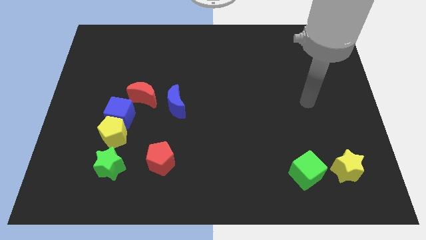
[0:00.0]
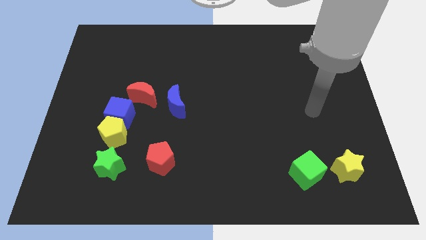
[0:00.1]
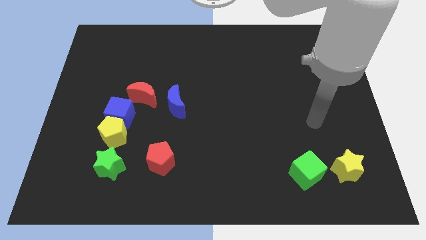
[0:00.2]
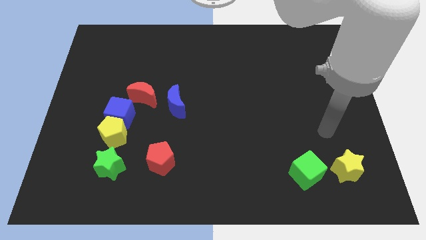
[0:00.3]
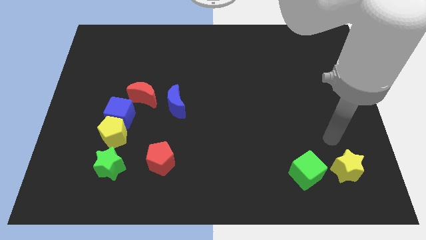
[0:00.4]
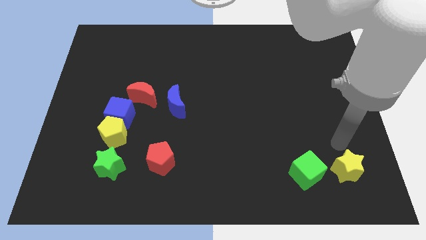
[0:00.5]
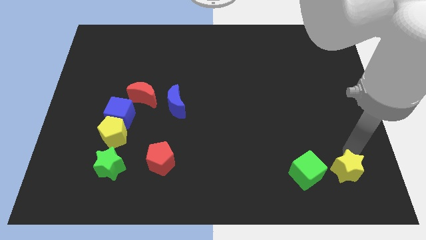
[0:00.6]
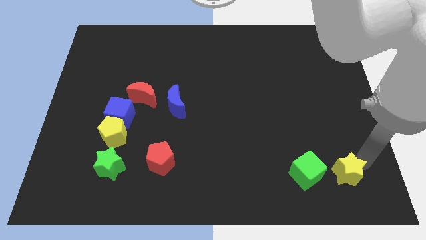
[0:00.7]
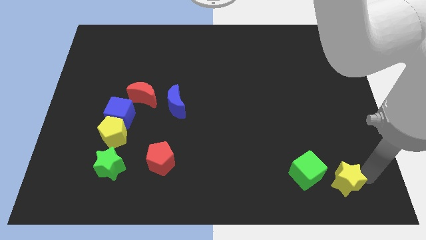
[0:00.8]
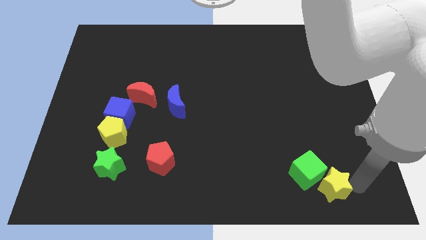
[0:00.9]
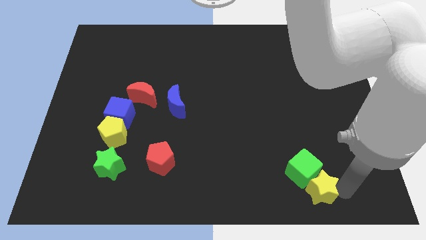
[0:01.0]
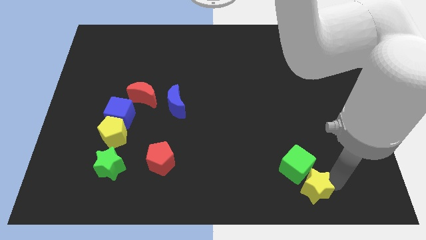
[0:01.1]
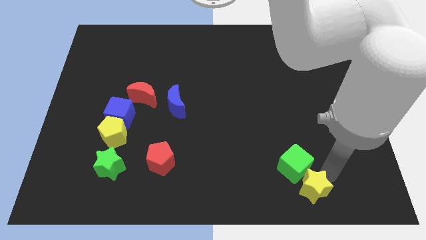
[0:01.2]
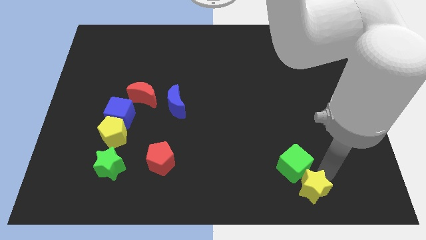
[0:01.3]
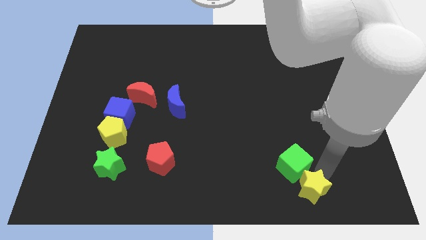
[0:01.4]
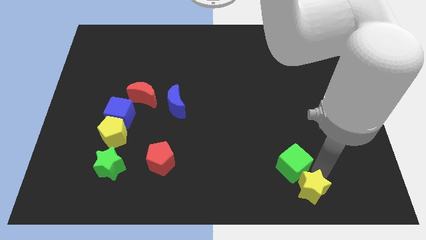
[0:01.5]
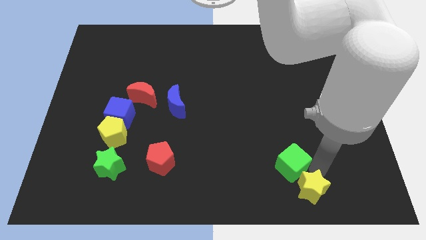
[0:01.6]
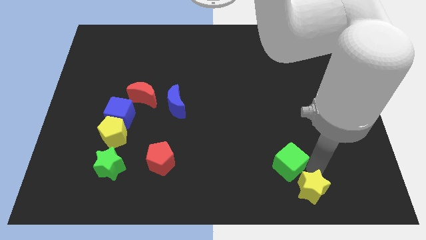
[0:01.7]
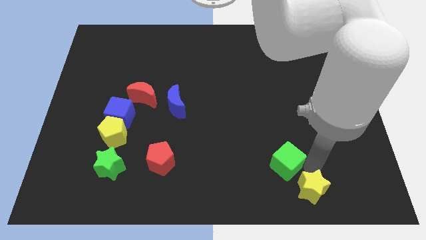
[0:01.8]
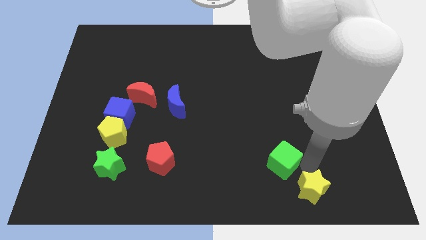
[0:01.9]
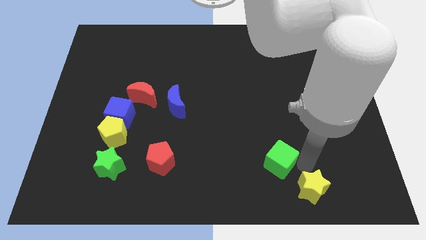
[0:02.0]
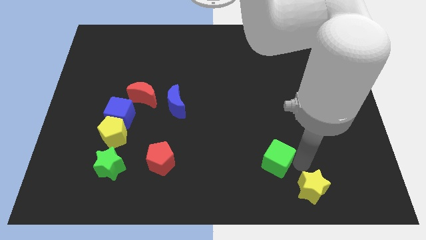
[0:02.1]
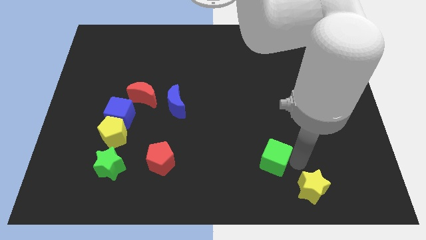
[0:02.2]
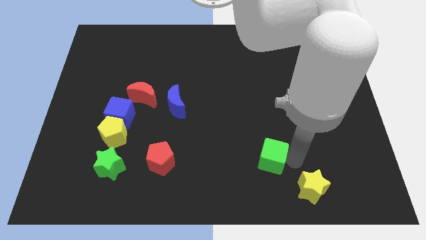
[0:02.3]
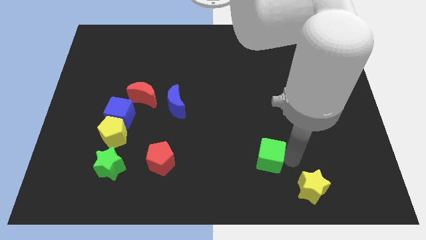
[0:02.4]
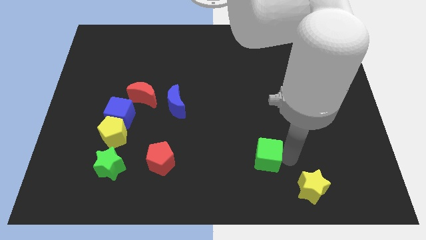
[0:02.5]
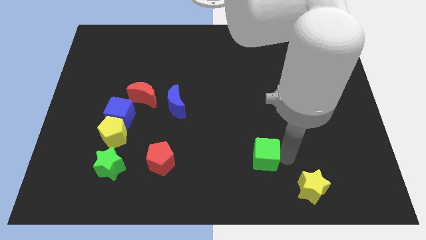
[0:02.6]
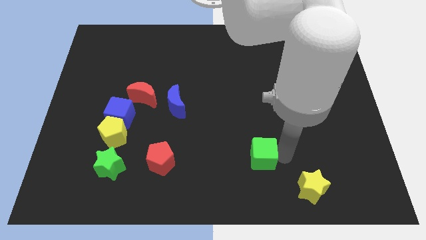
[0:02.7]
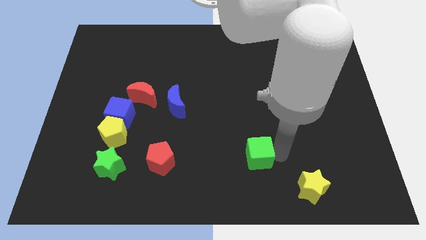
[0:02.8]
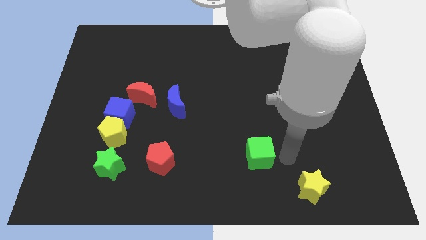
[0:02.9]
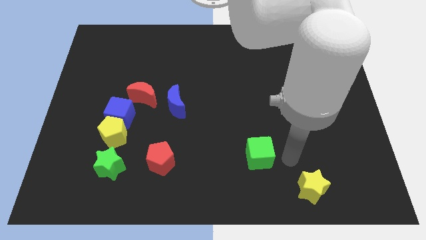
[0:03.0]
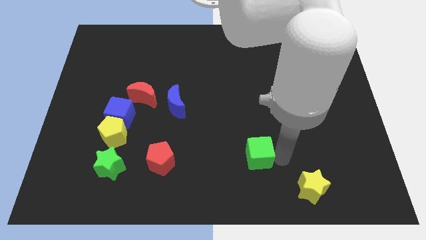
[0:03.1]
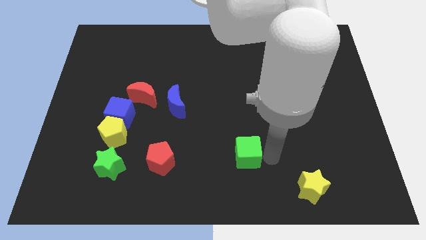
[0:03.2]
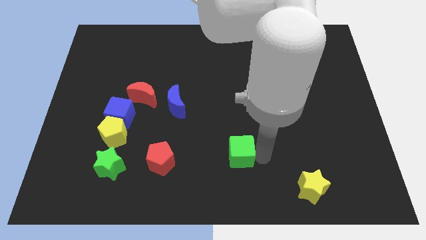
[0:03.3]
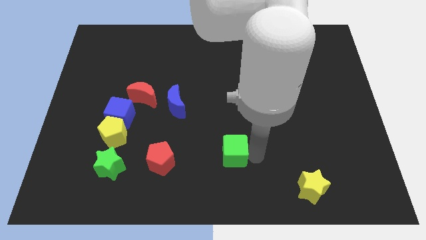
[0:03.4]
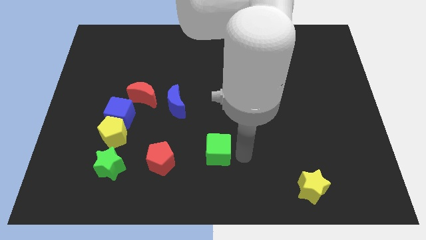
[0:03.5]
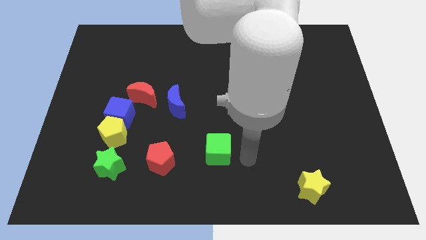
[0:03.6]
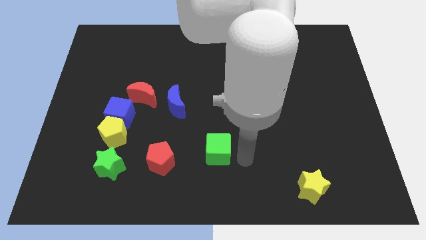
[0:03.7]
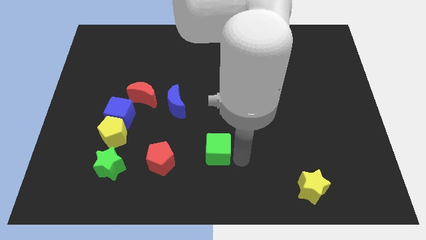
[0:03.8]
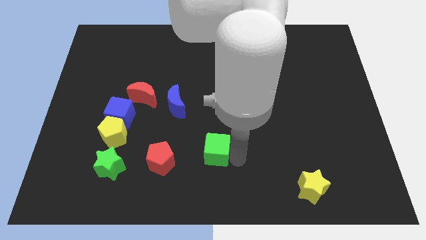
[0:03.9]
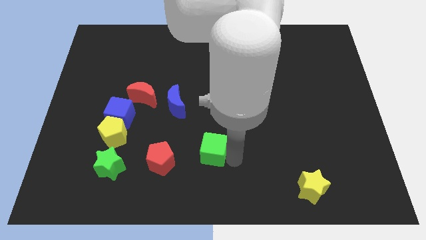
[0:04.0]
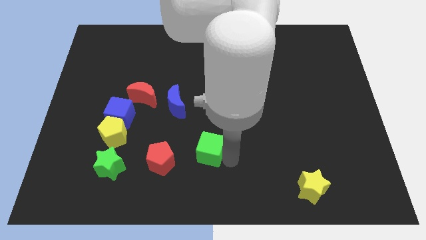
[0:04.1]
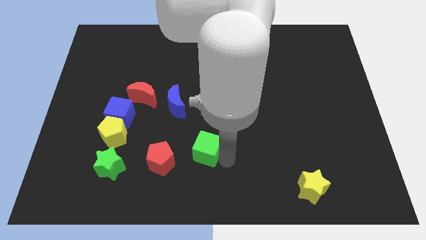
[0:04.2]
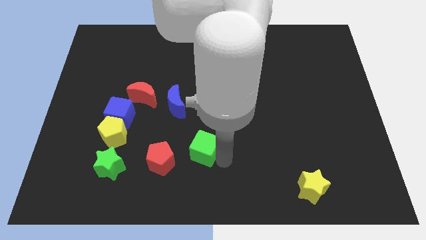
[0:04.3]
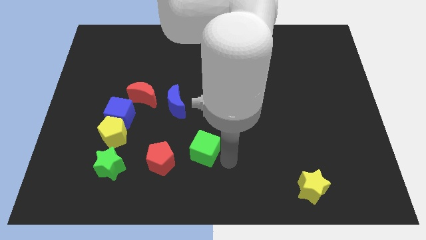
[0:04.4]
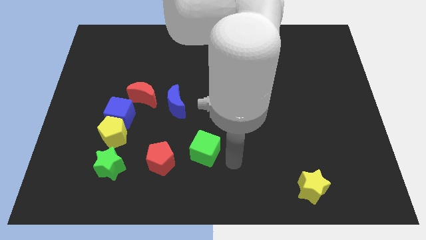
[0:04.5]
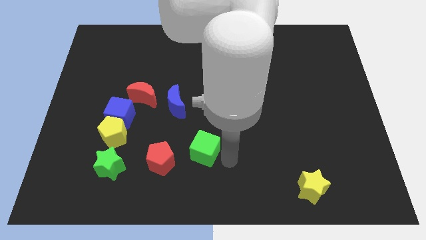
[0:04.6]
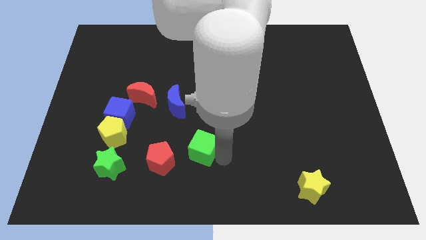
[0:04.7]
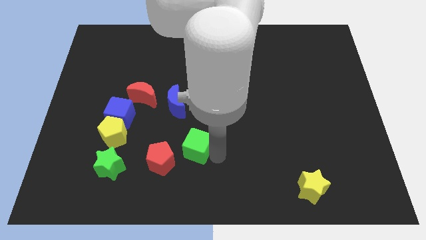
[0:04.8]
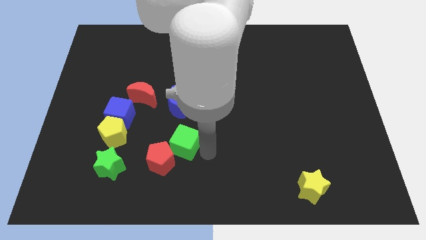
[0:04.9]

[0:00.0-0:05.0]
push the green cube just right of the yellow pentagon

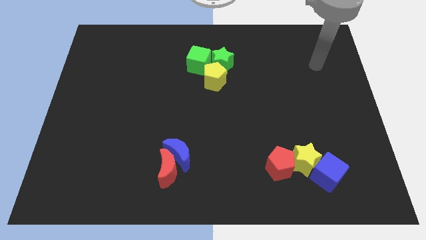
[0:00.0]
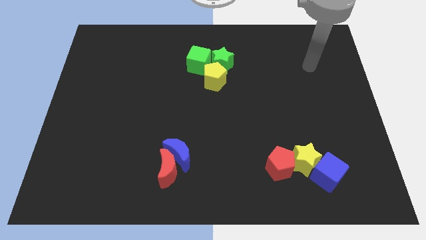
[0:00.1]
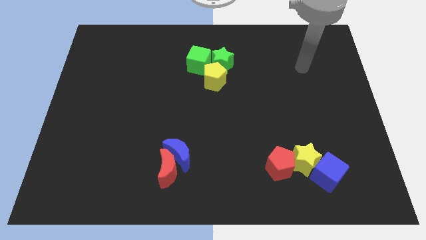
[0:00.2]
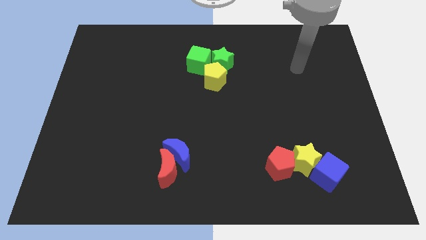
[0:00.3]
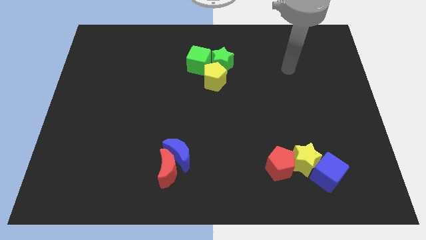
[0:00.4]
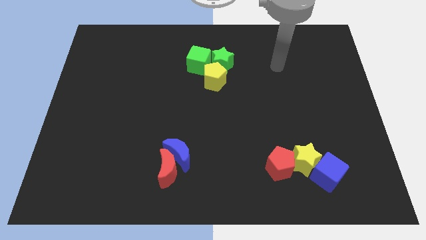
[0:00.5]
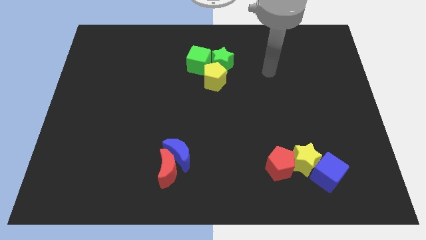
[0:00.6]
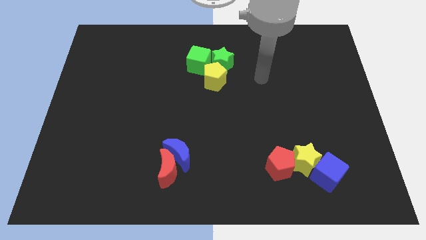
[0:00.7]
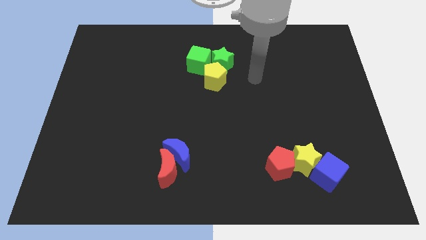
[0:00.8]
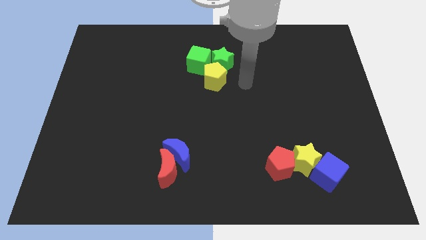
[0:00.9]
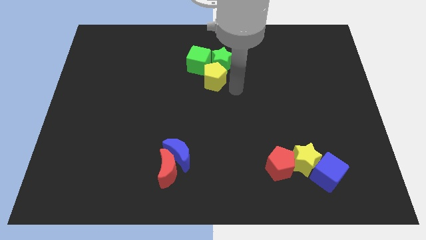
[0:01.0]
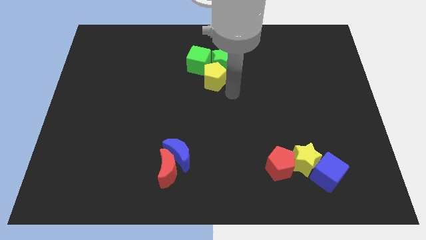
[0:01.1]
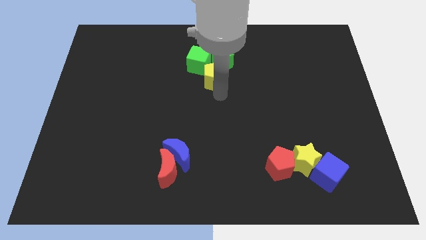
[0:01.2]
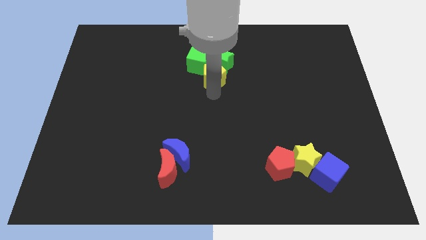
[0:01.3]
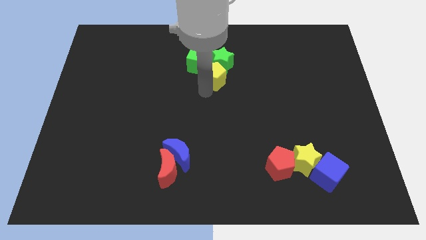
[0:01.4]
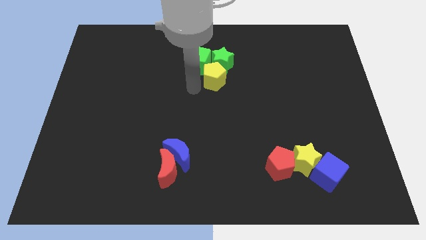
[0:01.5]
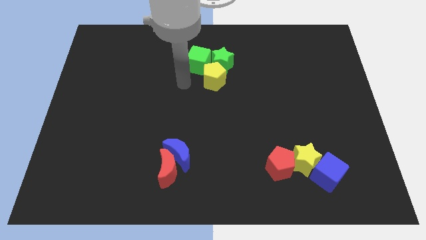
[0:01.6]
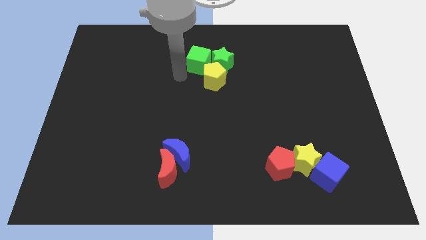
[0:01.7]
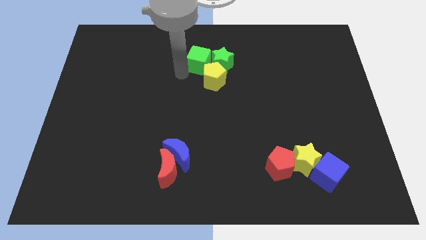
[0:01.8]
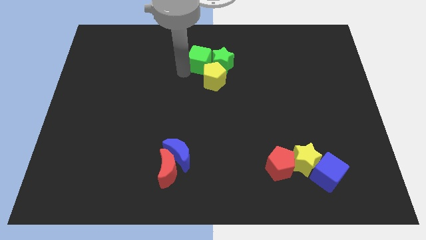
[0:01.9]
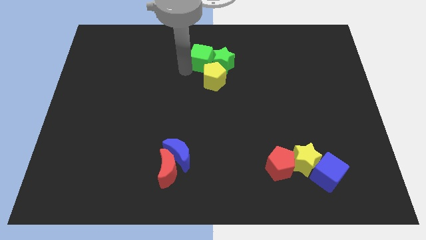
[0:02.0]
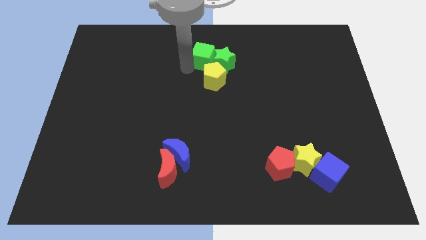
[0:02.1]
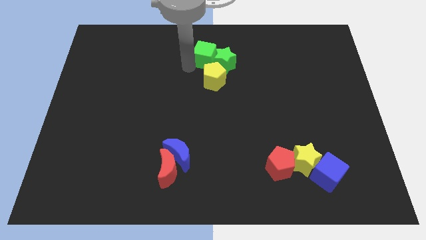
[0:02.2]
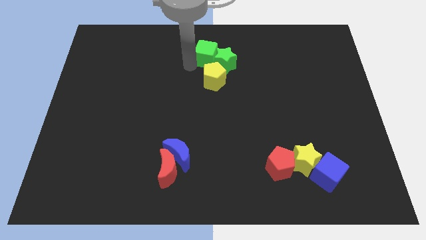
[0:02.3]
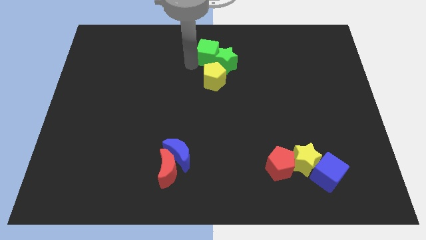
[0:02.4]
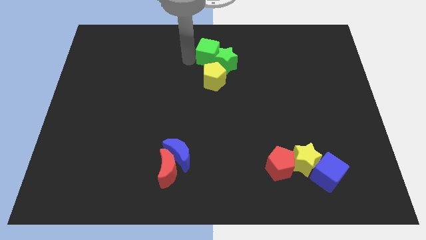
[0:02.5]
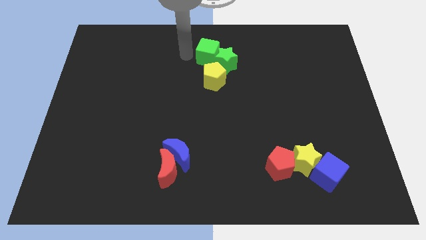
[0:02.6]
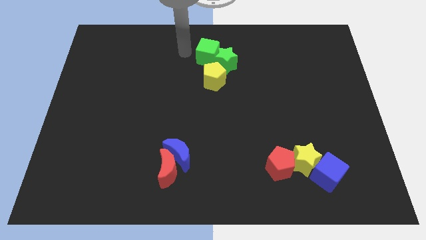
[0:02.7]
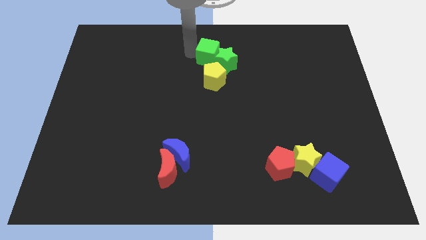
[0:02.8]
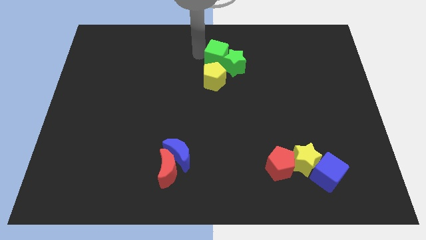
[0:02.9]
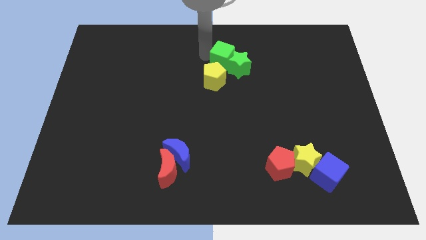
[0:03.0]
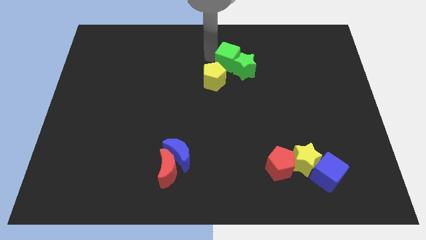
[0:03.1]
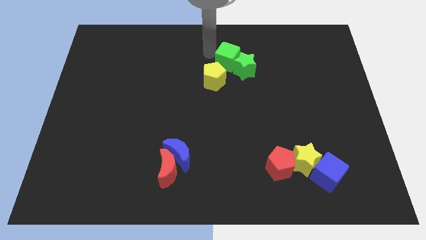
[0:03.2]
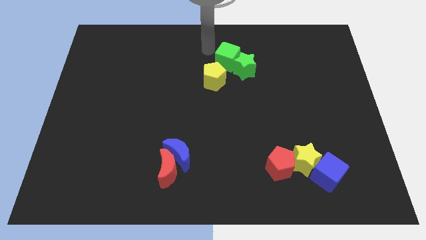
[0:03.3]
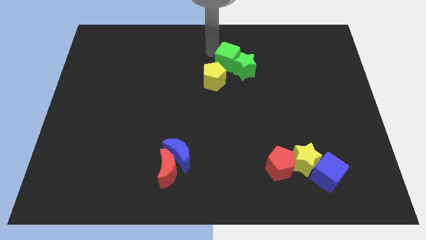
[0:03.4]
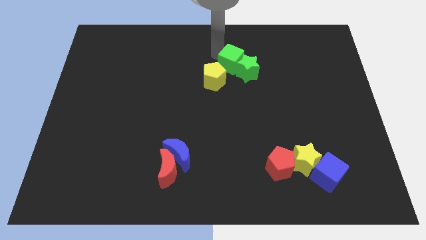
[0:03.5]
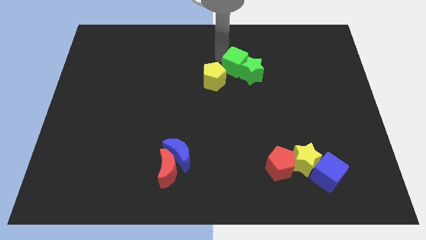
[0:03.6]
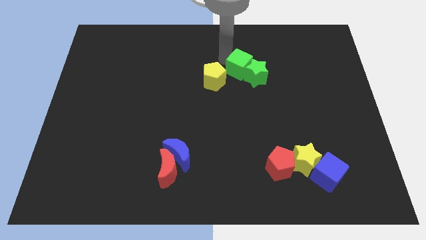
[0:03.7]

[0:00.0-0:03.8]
push the green cube to the right side of the yellow pentagon
